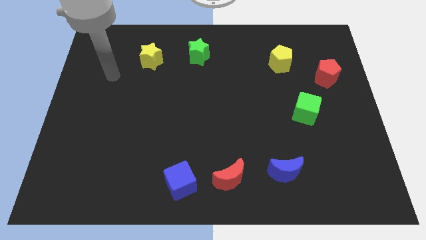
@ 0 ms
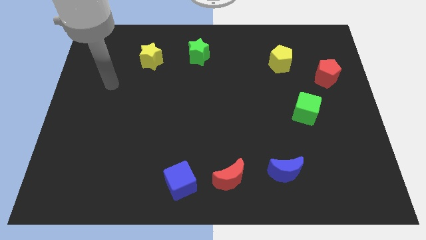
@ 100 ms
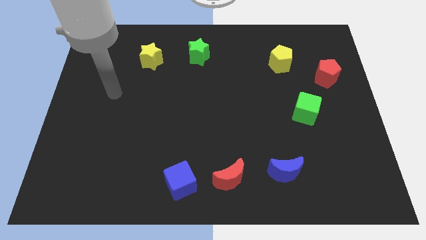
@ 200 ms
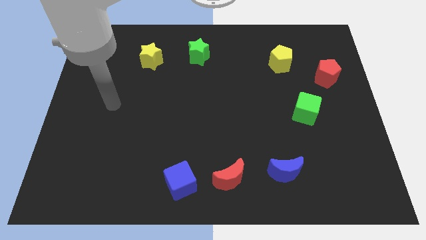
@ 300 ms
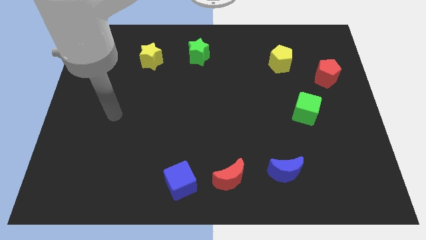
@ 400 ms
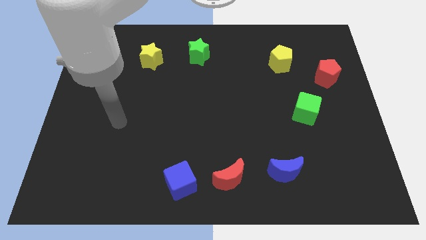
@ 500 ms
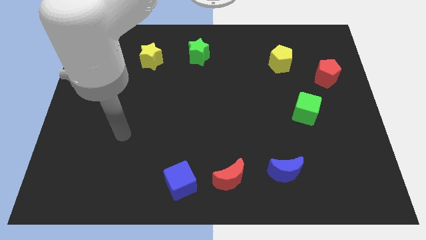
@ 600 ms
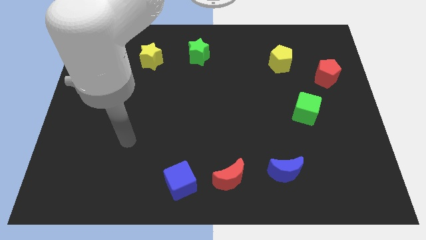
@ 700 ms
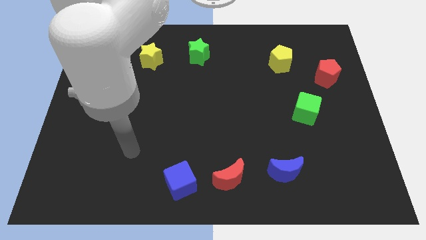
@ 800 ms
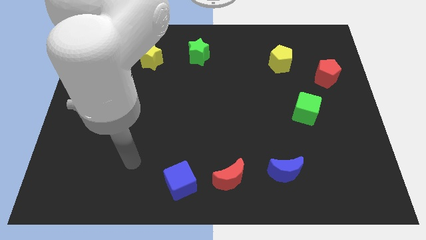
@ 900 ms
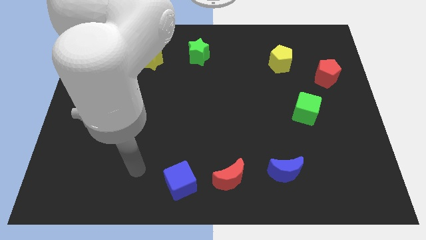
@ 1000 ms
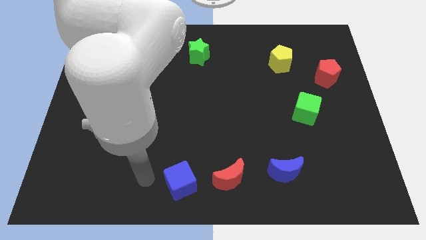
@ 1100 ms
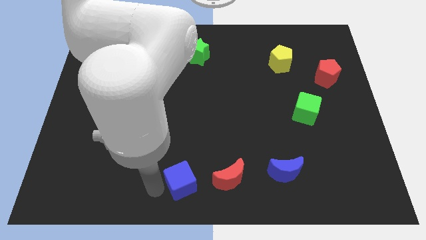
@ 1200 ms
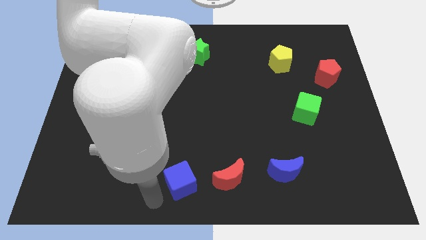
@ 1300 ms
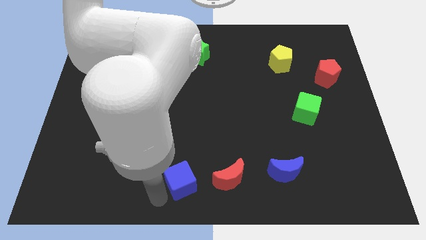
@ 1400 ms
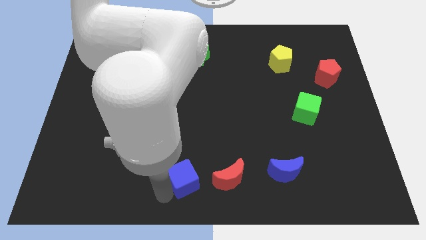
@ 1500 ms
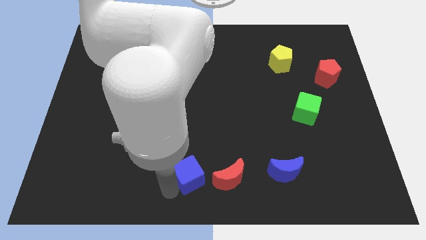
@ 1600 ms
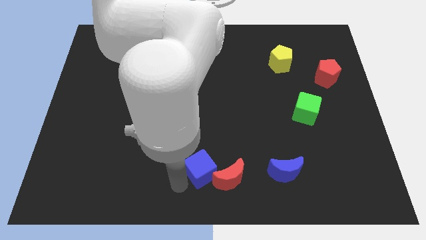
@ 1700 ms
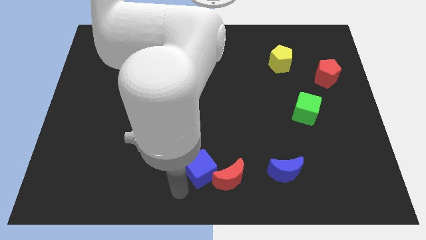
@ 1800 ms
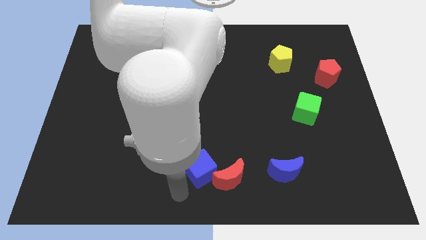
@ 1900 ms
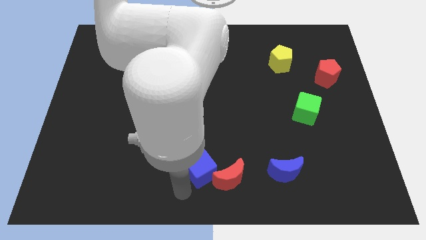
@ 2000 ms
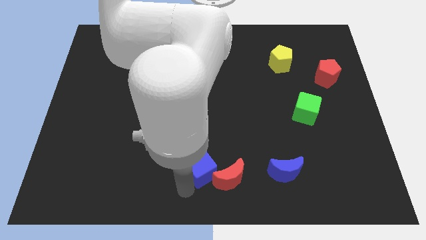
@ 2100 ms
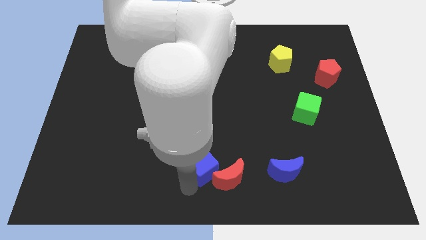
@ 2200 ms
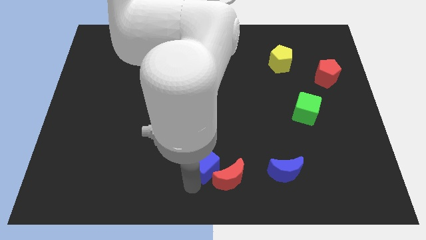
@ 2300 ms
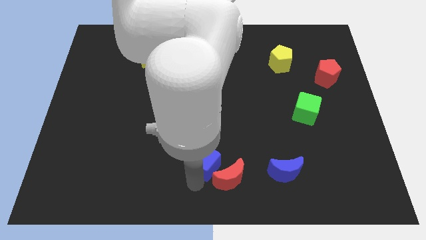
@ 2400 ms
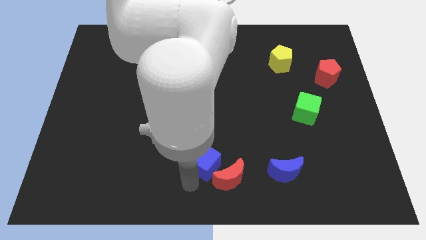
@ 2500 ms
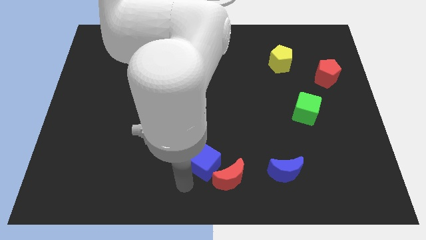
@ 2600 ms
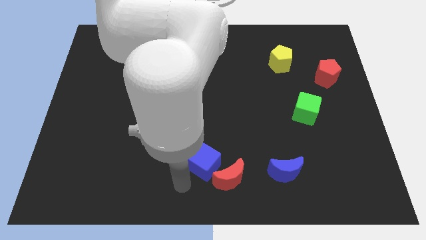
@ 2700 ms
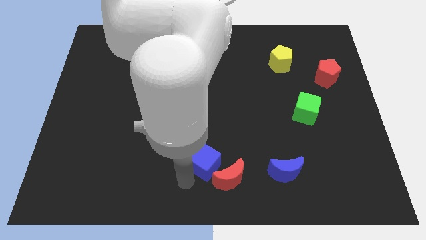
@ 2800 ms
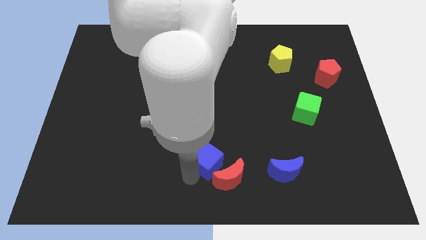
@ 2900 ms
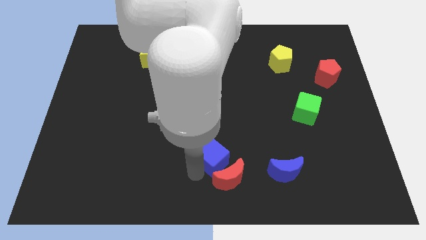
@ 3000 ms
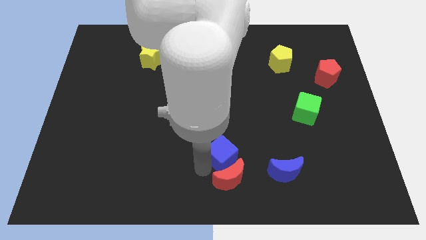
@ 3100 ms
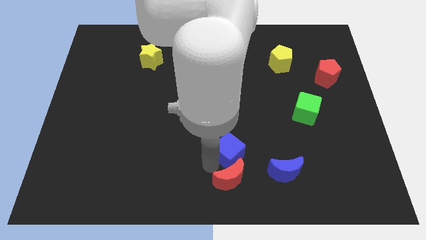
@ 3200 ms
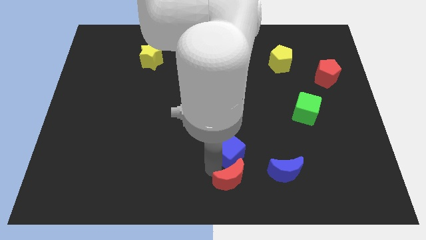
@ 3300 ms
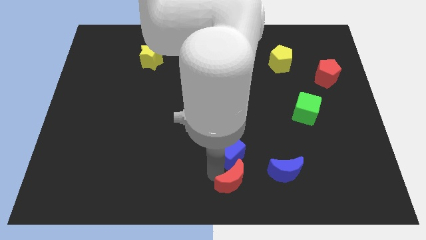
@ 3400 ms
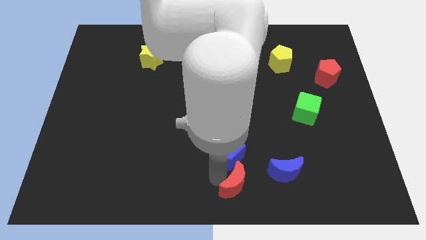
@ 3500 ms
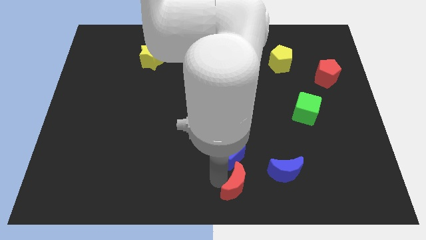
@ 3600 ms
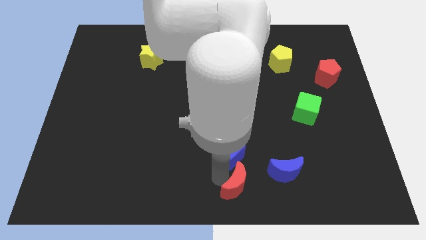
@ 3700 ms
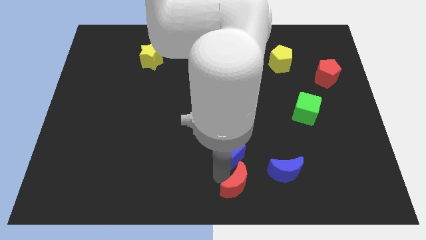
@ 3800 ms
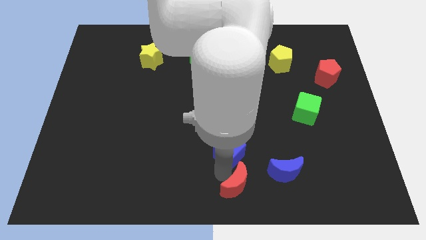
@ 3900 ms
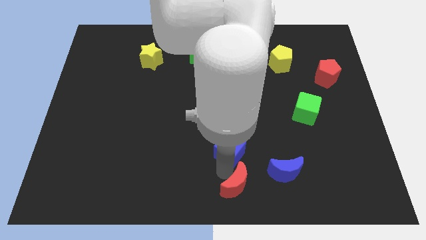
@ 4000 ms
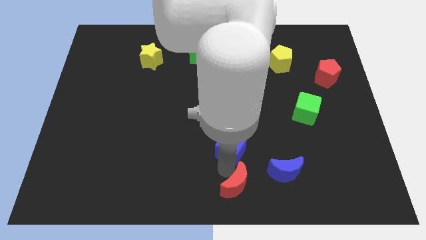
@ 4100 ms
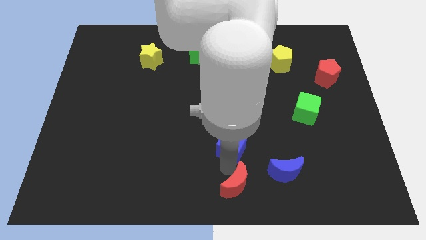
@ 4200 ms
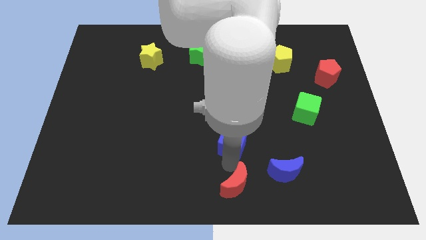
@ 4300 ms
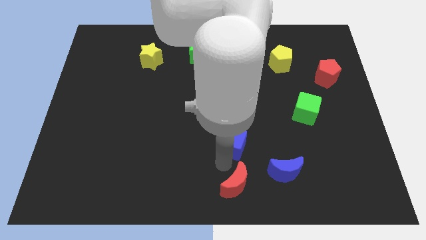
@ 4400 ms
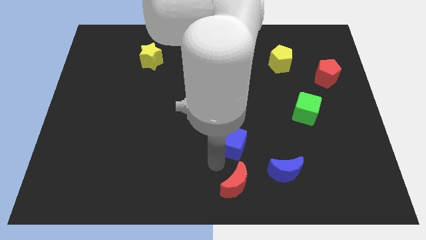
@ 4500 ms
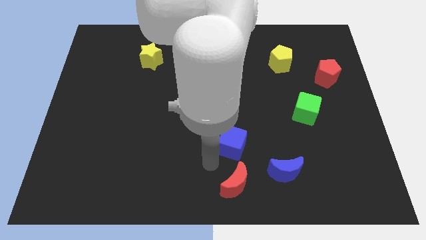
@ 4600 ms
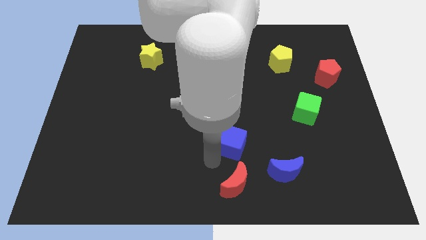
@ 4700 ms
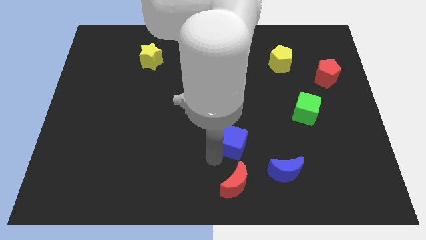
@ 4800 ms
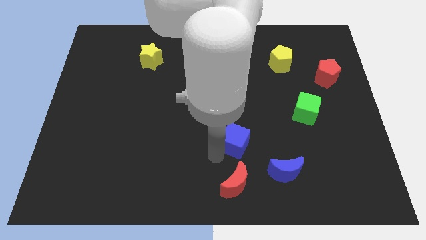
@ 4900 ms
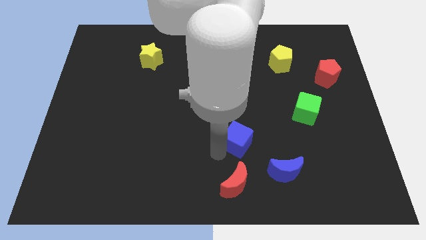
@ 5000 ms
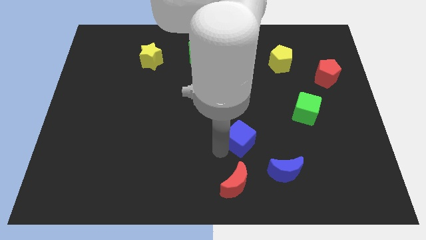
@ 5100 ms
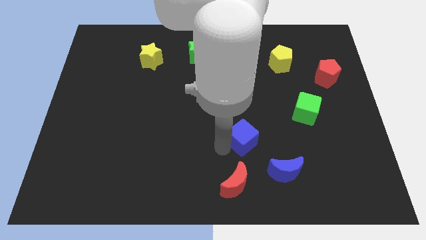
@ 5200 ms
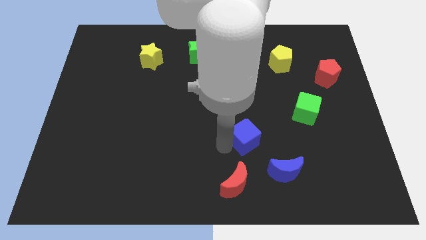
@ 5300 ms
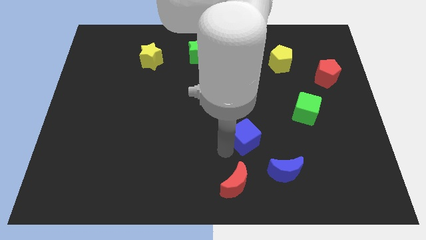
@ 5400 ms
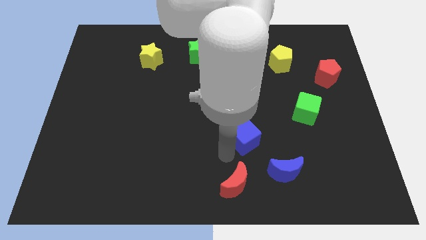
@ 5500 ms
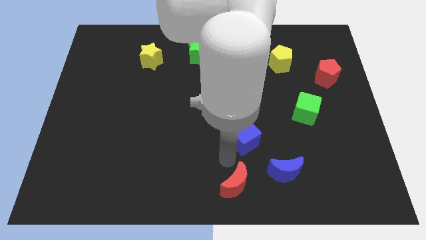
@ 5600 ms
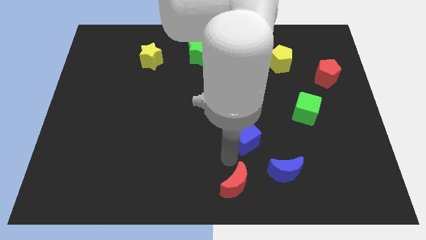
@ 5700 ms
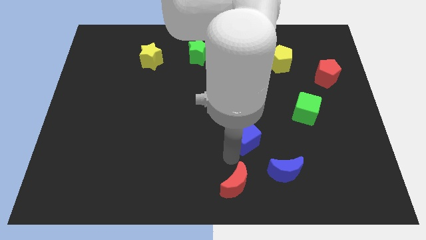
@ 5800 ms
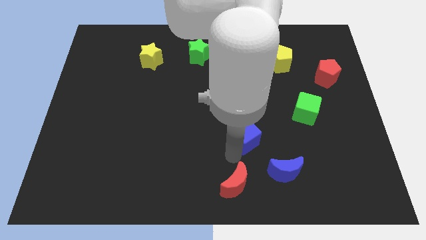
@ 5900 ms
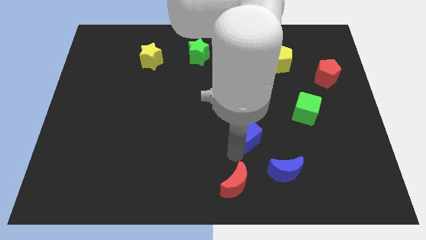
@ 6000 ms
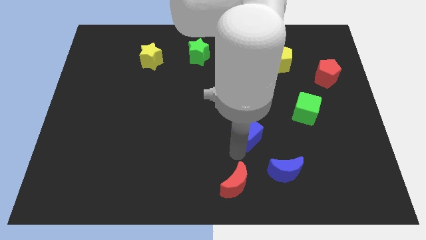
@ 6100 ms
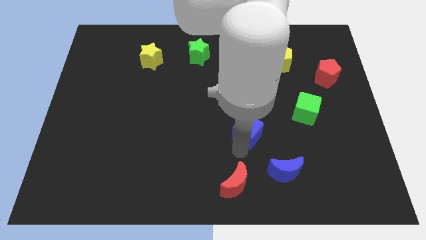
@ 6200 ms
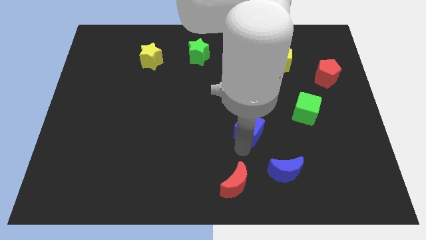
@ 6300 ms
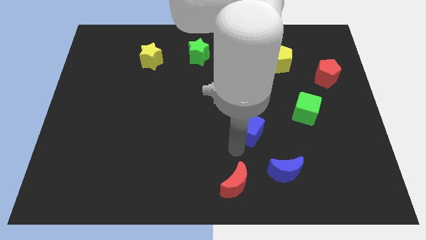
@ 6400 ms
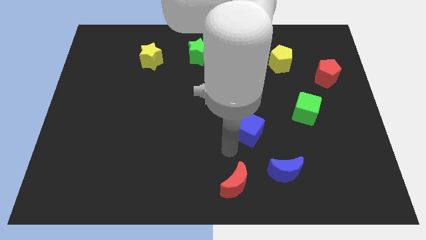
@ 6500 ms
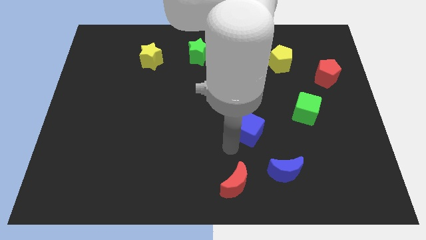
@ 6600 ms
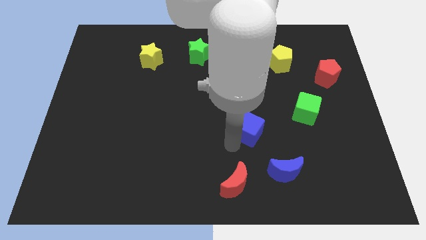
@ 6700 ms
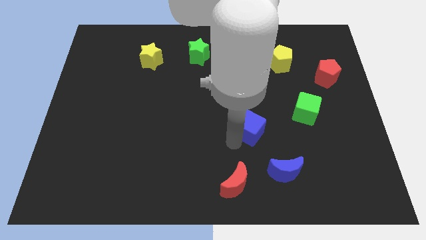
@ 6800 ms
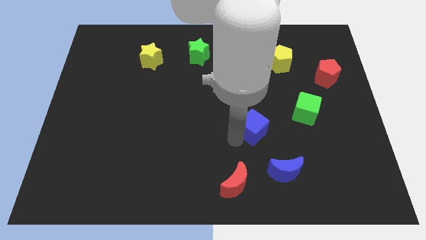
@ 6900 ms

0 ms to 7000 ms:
slide the blue cube upwards and to the right

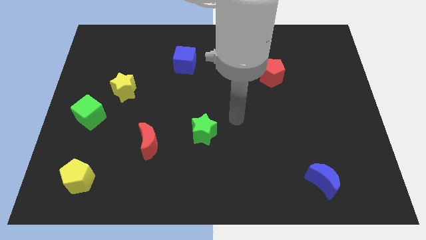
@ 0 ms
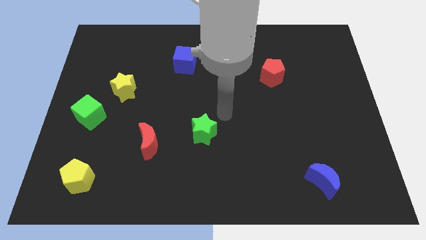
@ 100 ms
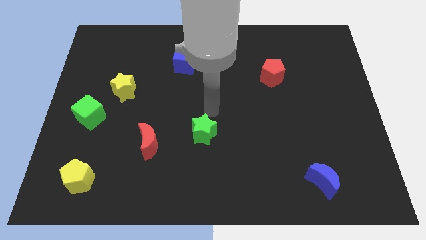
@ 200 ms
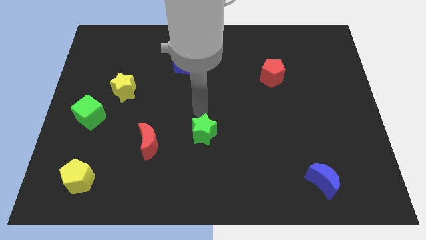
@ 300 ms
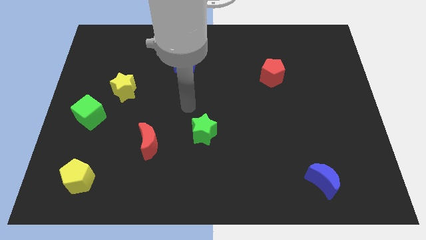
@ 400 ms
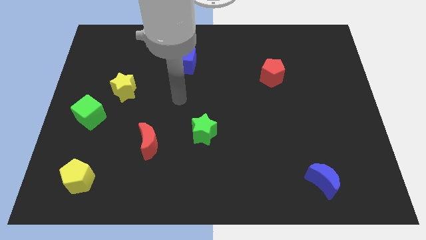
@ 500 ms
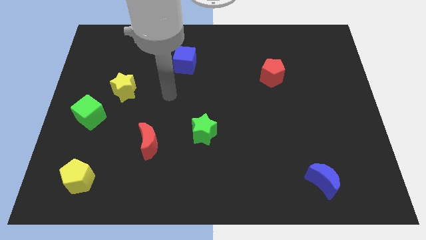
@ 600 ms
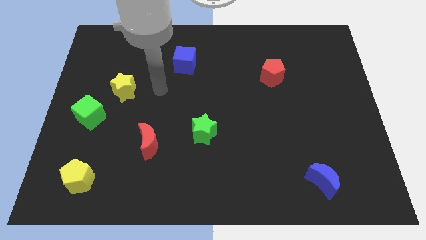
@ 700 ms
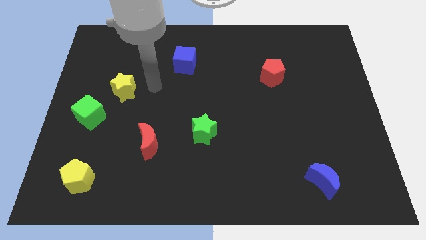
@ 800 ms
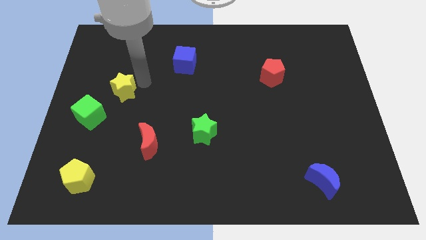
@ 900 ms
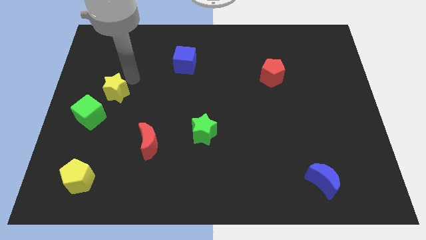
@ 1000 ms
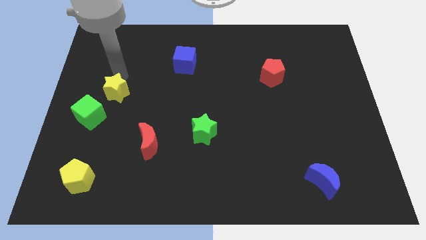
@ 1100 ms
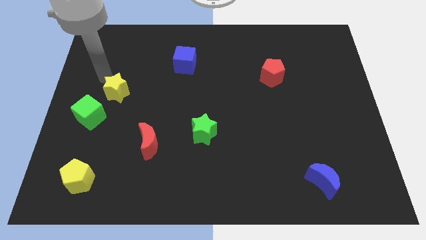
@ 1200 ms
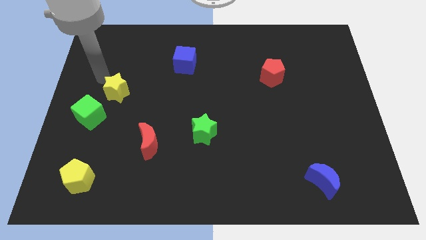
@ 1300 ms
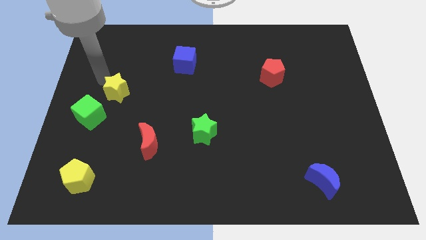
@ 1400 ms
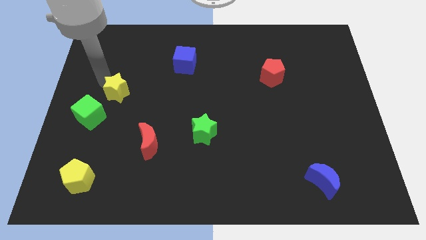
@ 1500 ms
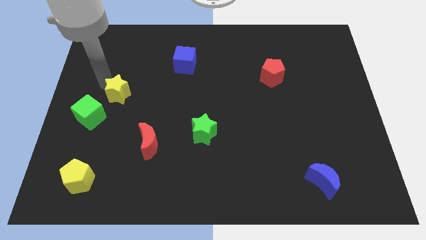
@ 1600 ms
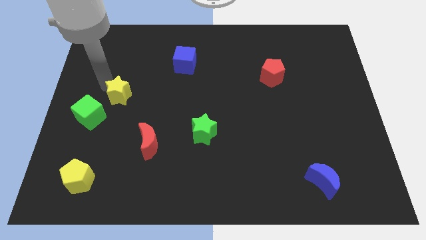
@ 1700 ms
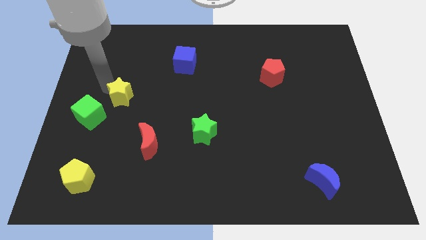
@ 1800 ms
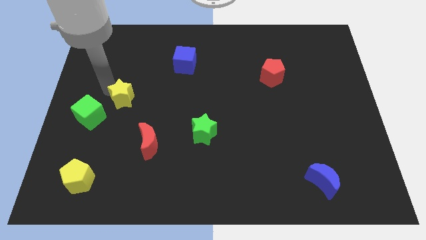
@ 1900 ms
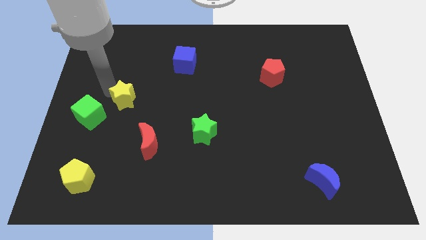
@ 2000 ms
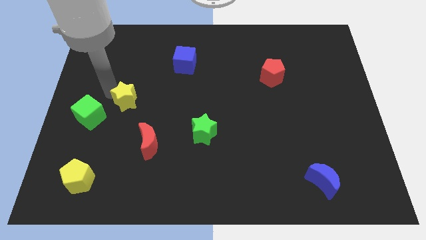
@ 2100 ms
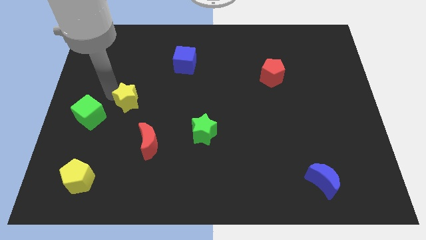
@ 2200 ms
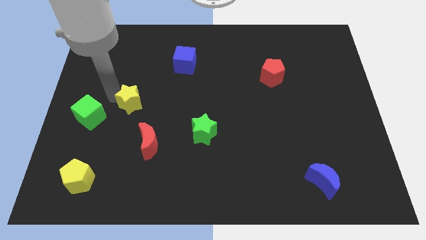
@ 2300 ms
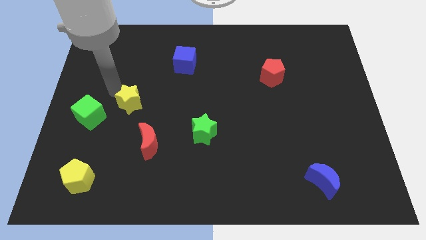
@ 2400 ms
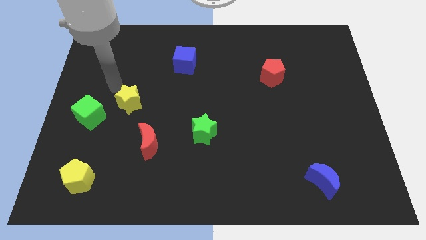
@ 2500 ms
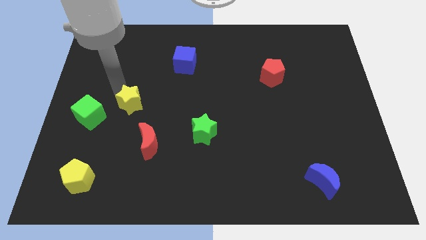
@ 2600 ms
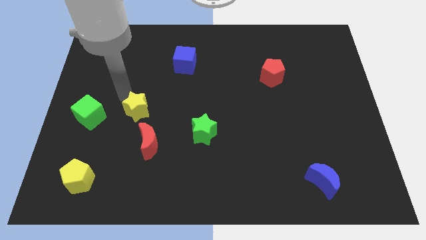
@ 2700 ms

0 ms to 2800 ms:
slightly push the yellow star downwards and to the right diagonally
